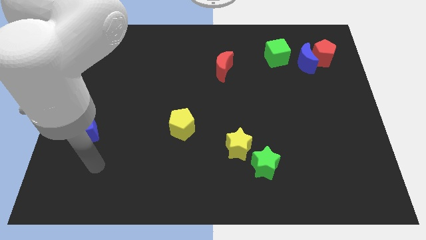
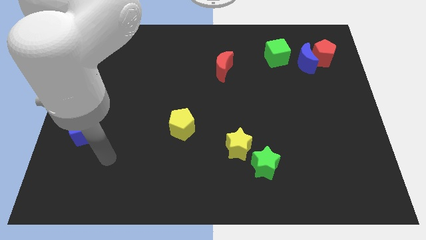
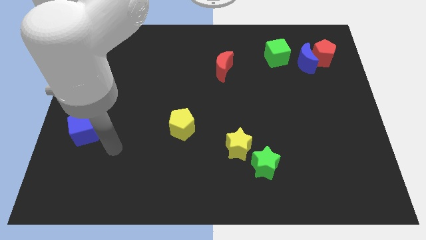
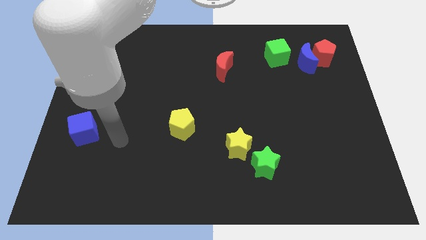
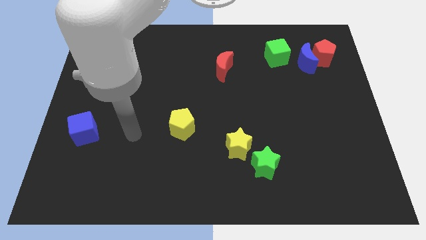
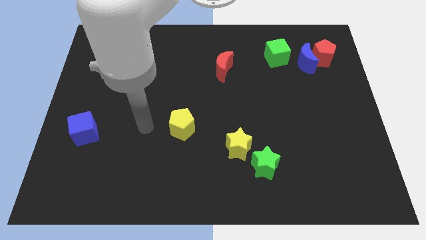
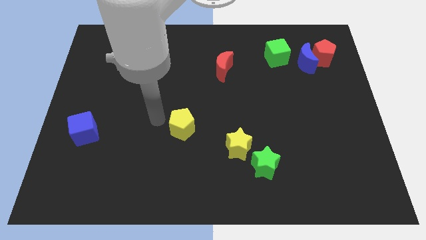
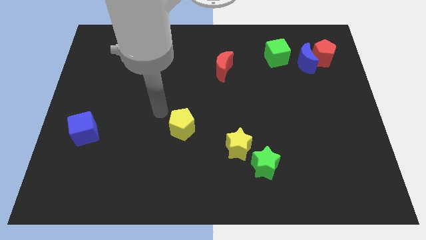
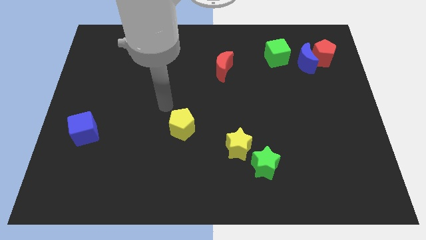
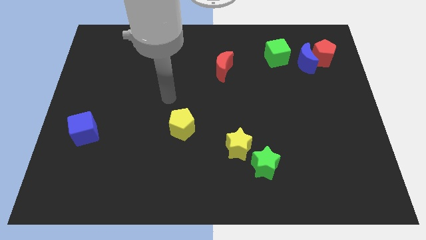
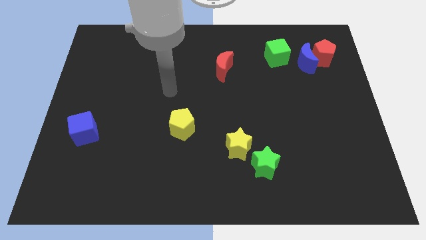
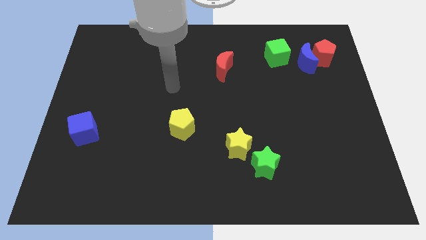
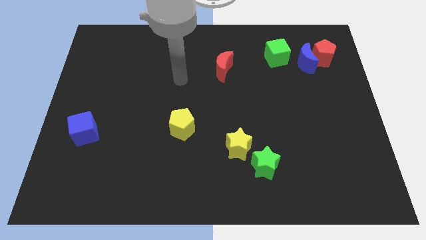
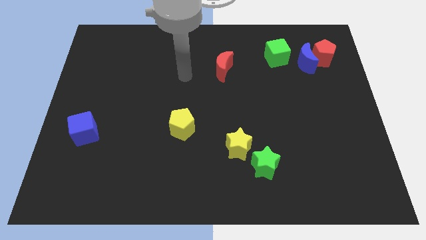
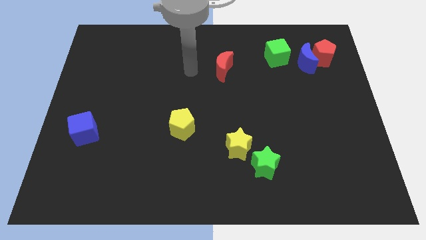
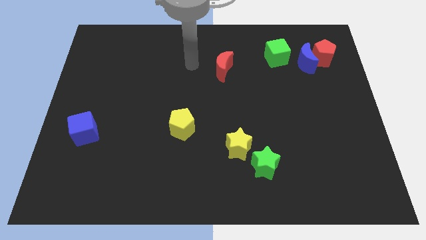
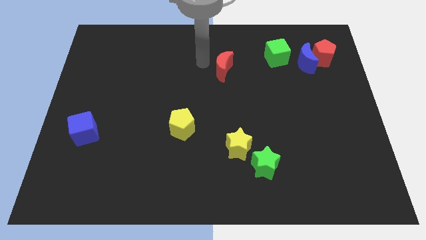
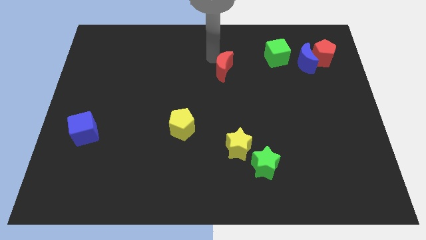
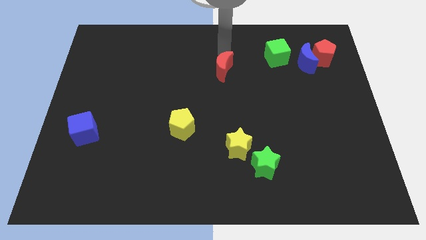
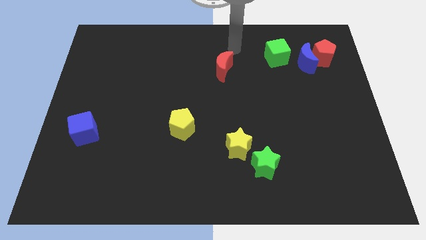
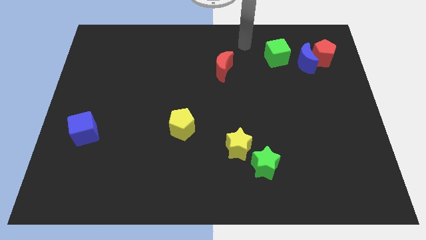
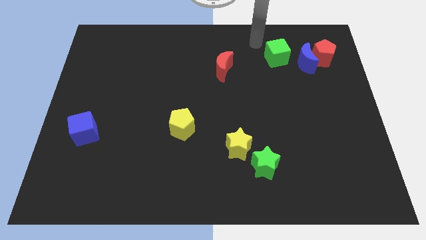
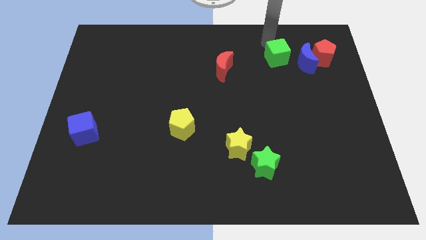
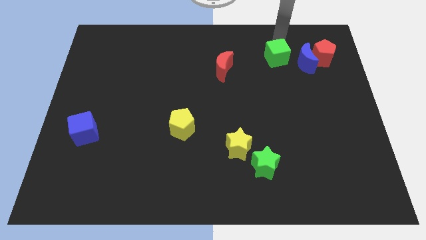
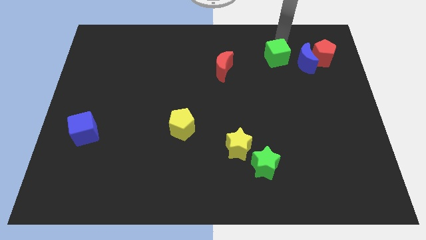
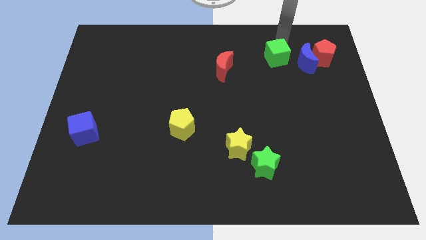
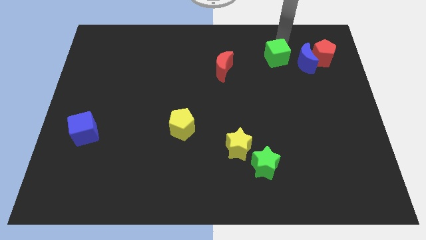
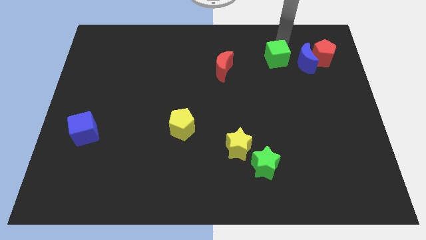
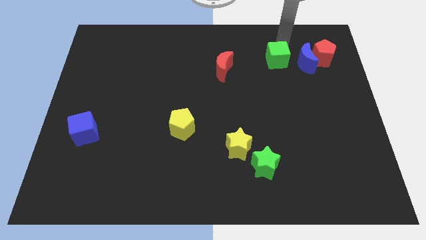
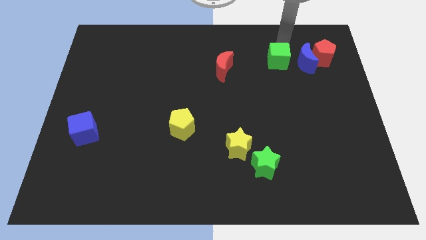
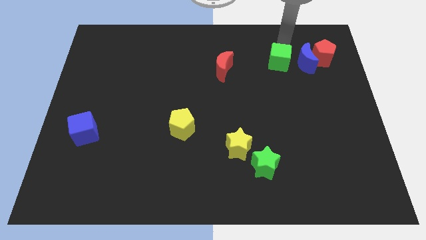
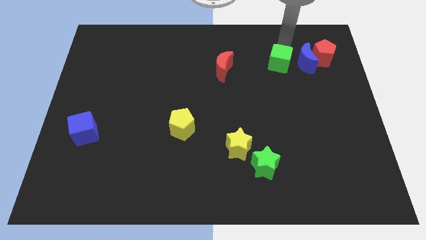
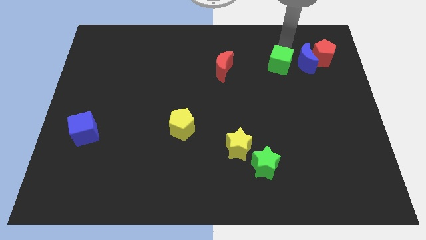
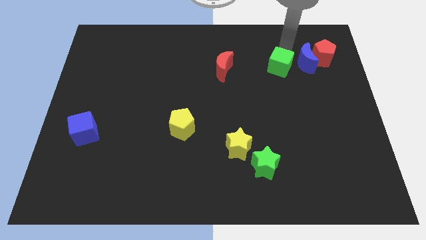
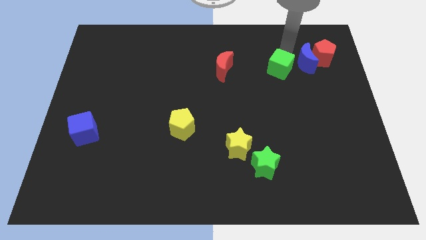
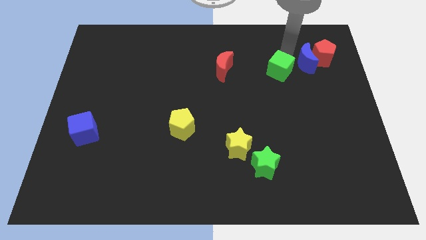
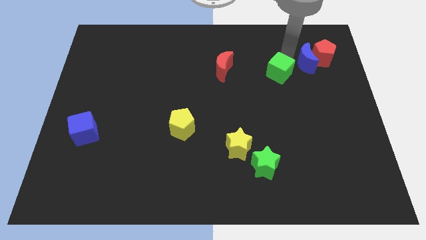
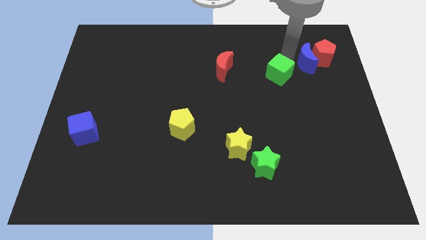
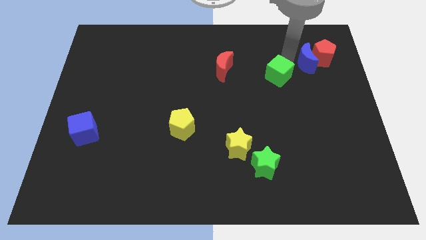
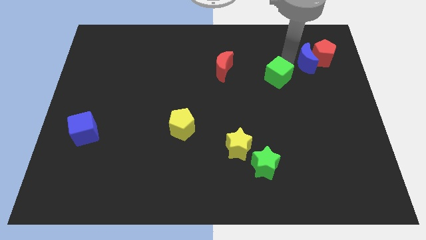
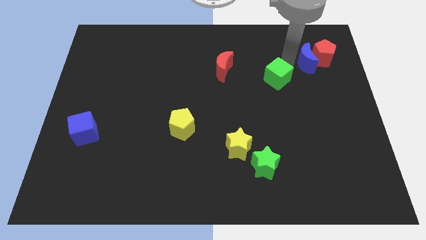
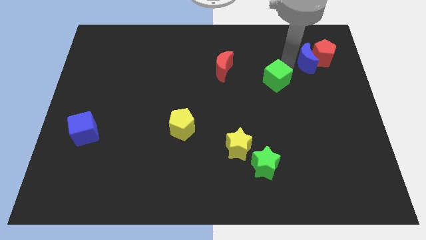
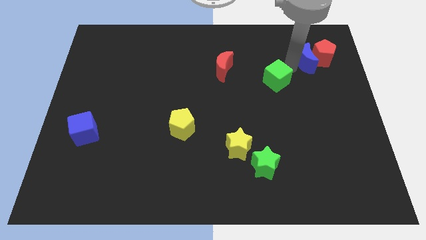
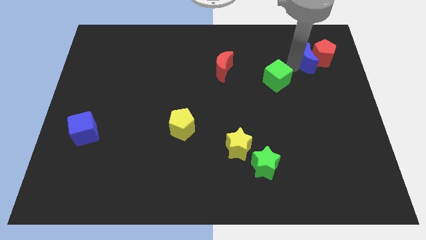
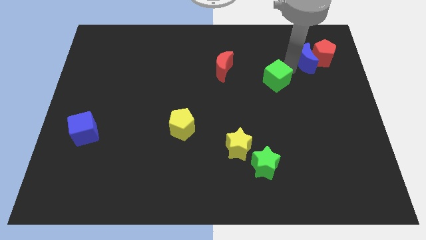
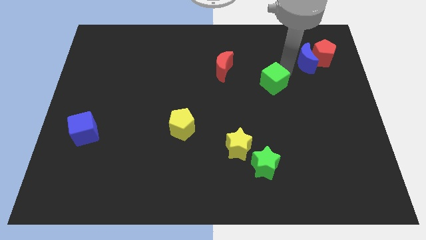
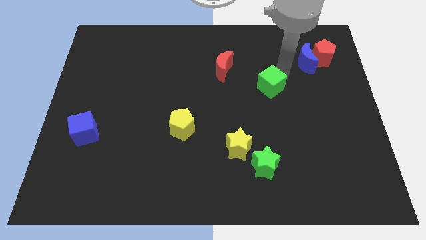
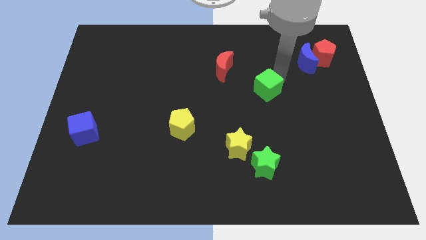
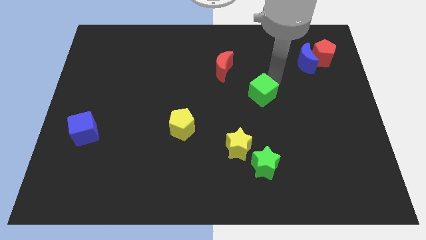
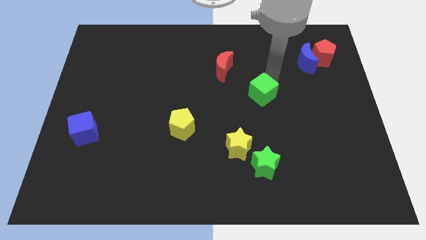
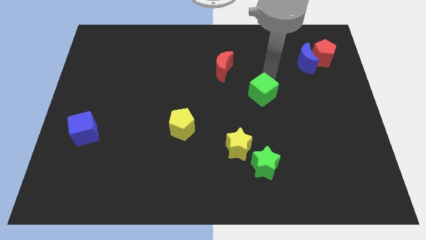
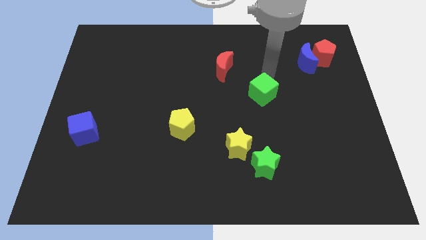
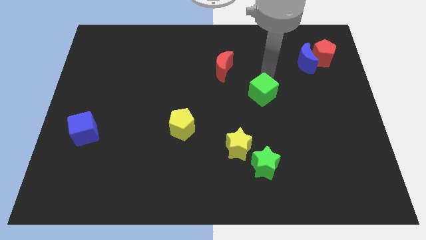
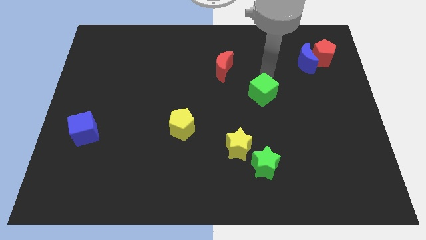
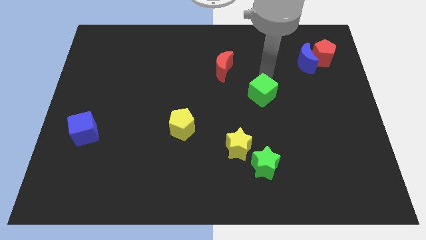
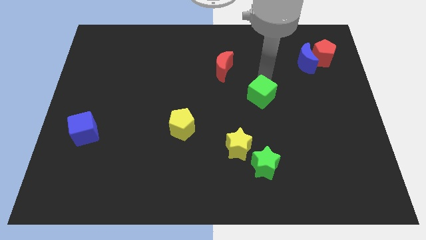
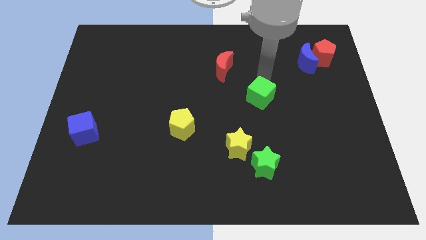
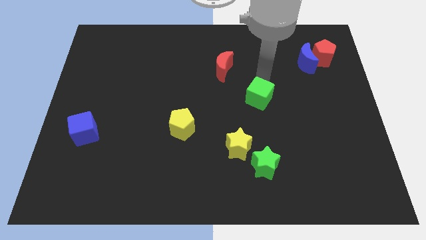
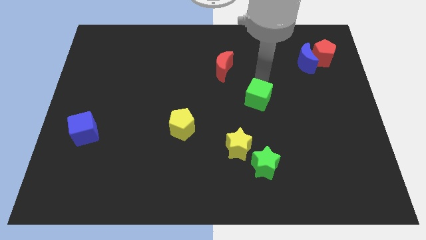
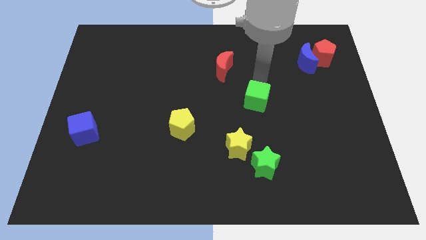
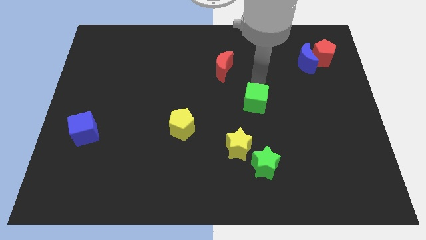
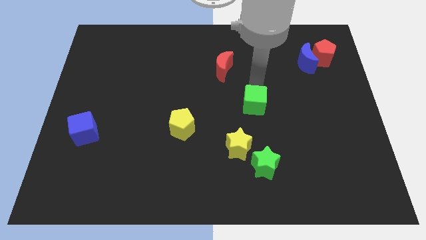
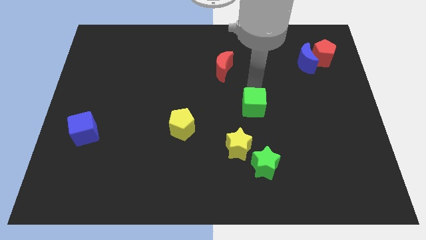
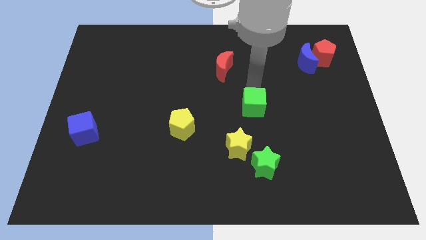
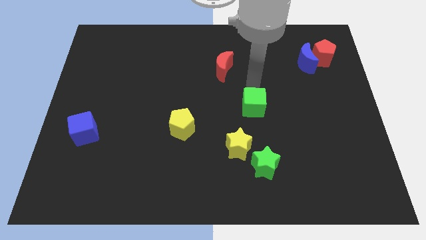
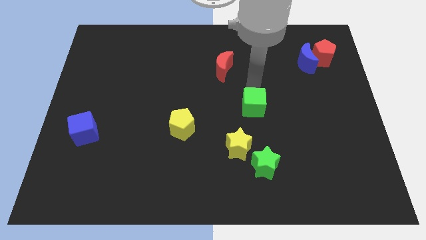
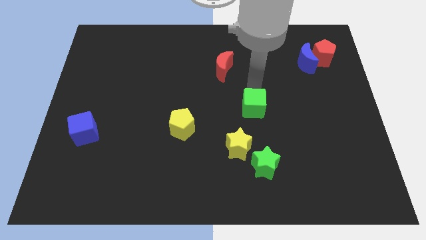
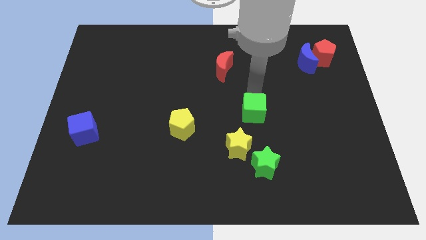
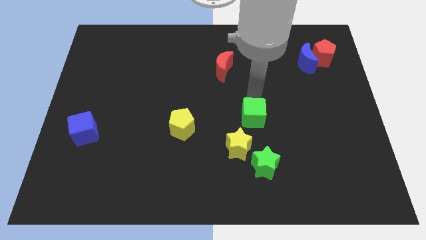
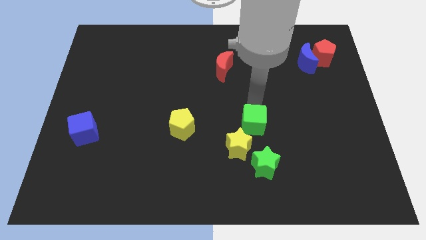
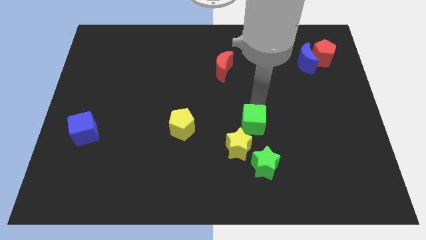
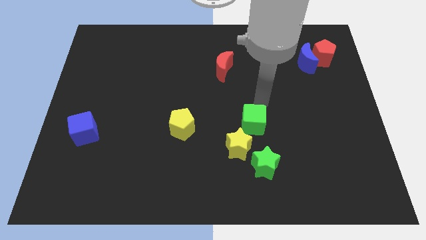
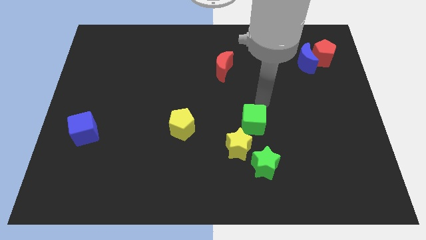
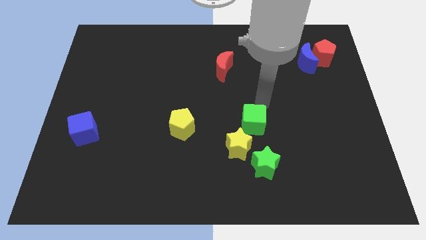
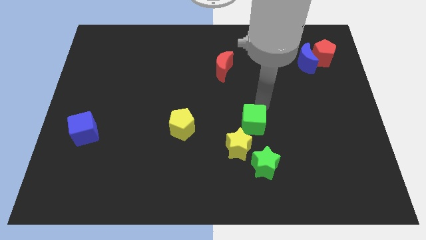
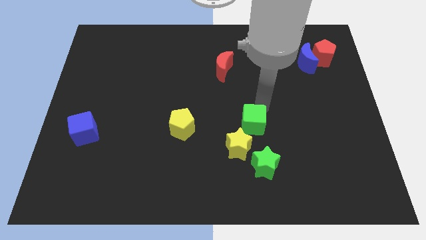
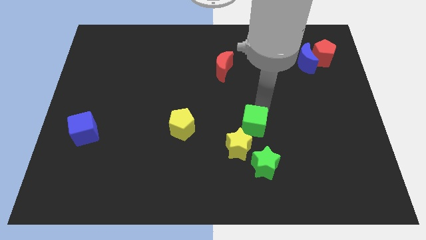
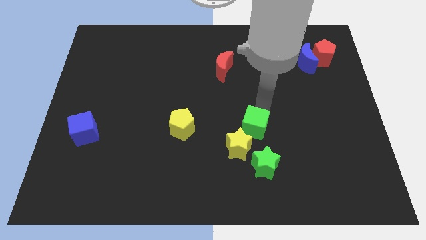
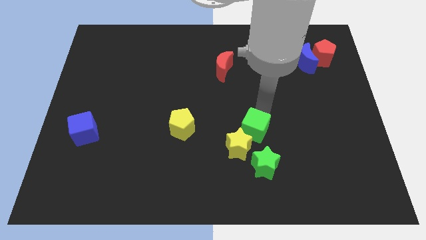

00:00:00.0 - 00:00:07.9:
push the green cube close to the yellow star
